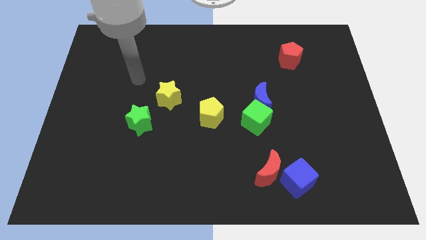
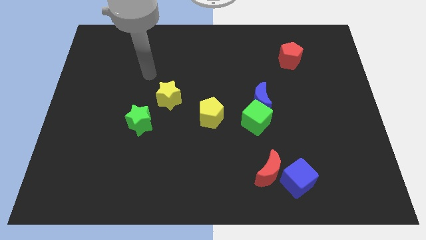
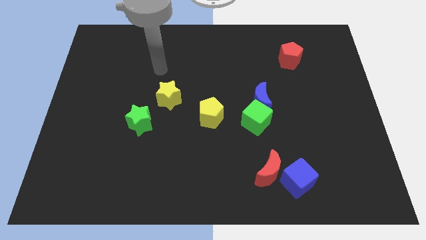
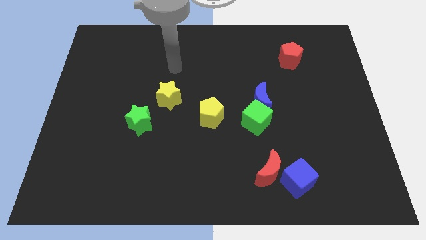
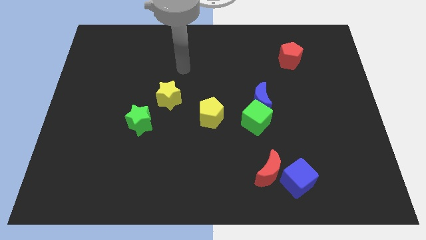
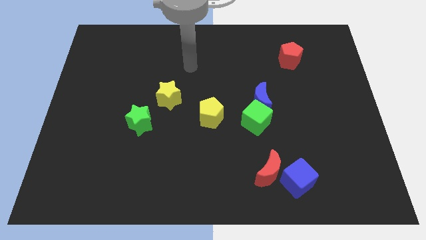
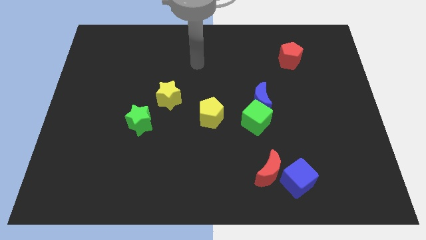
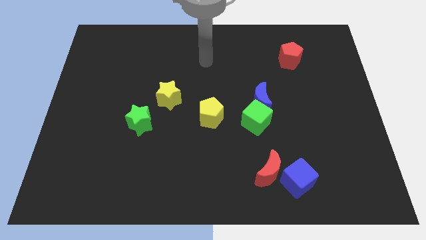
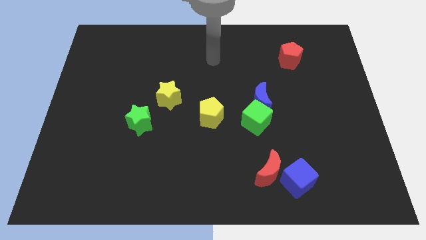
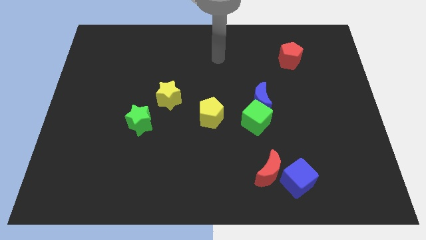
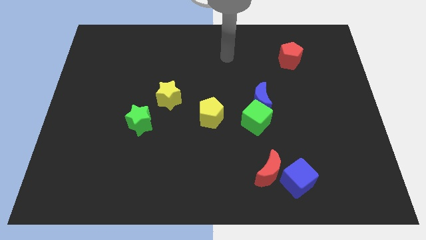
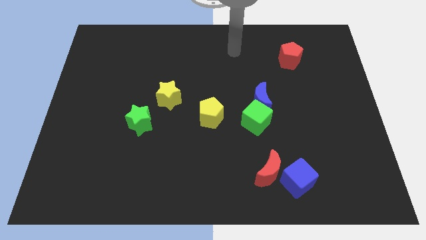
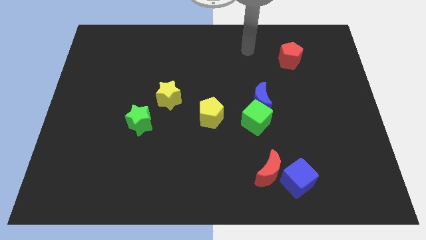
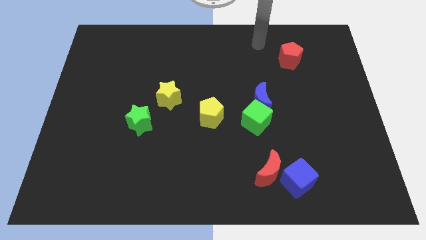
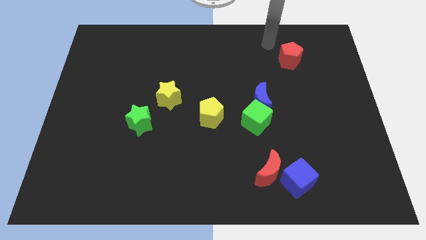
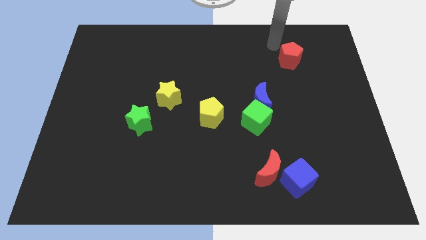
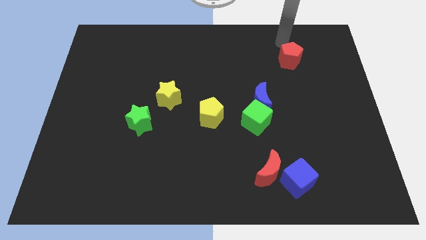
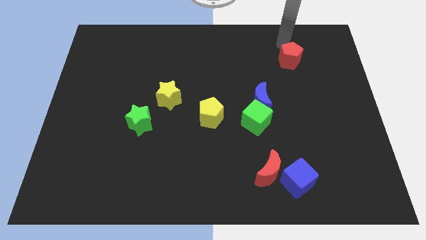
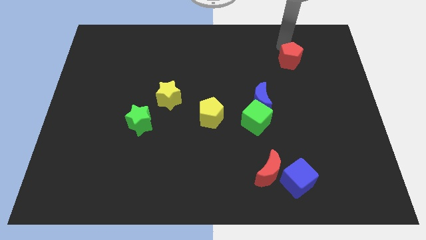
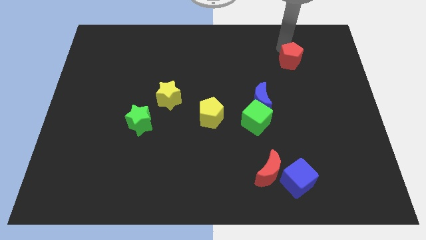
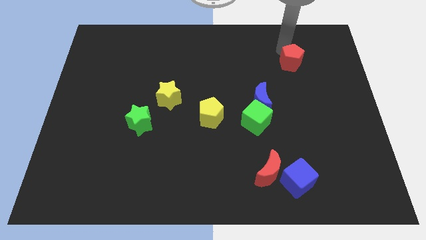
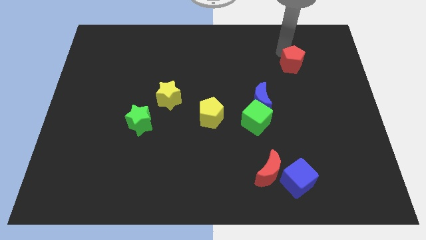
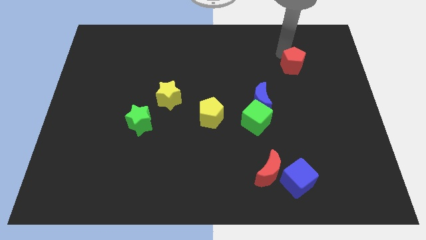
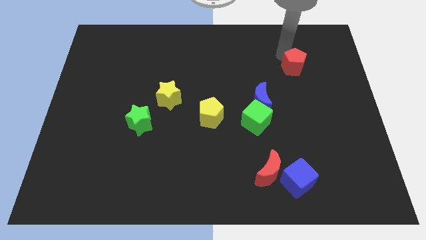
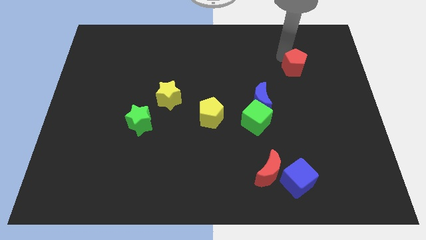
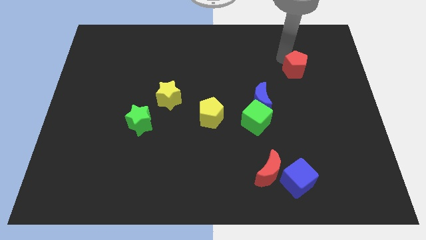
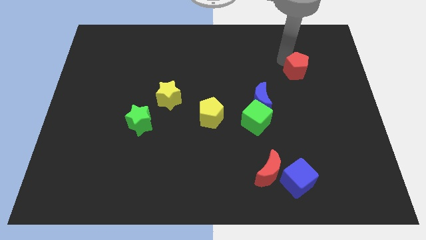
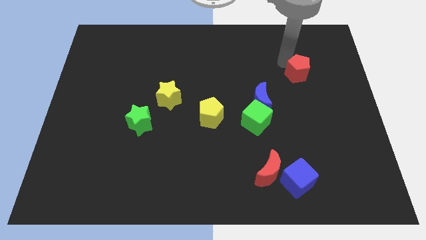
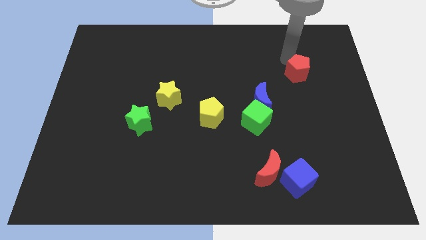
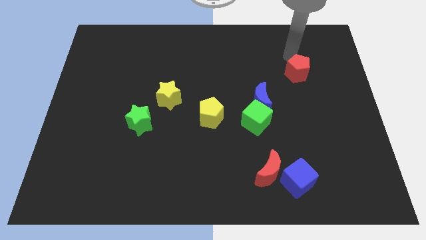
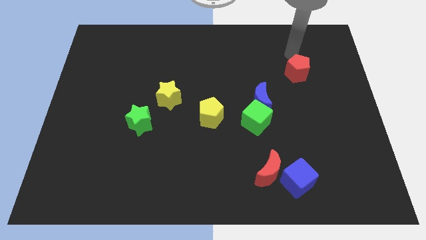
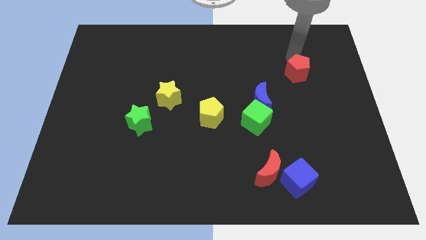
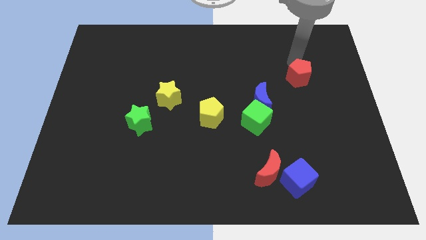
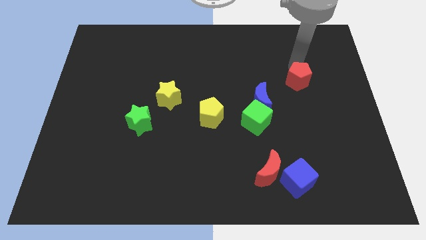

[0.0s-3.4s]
push the red pentagon downwards somewhat

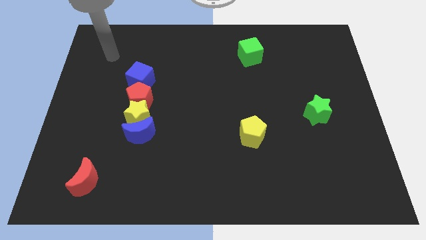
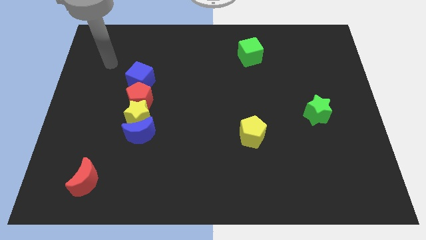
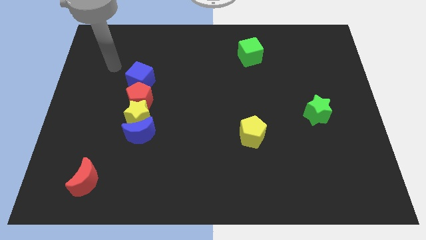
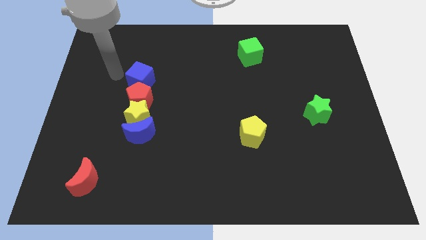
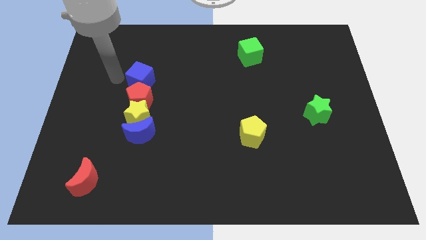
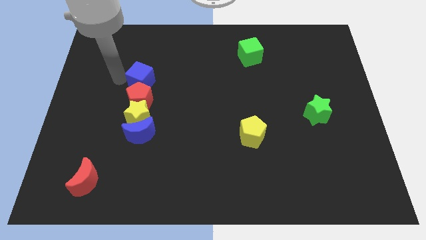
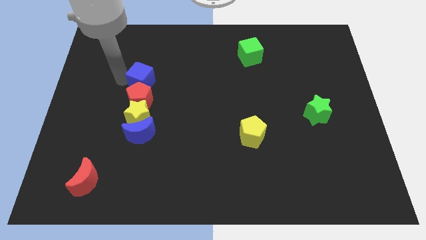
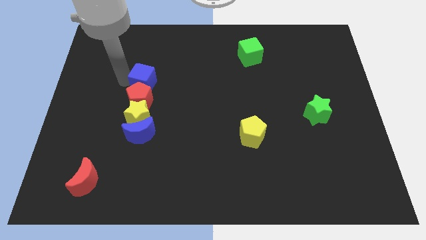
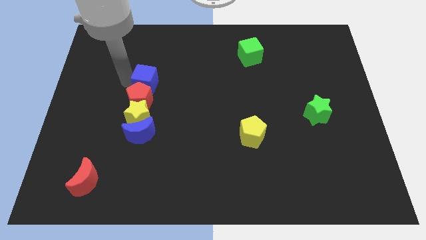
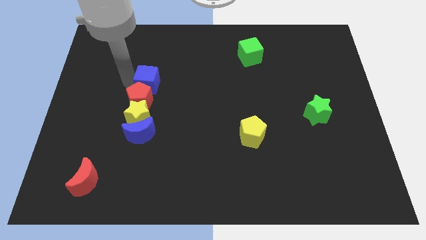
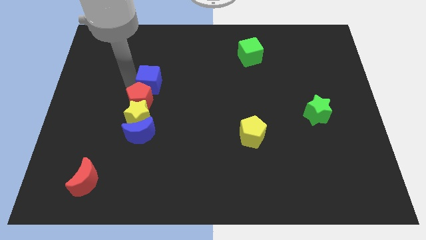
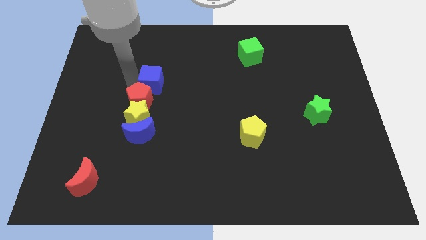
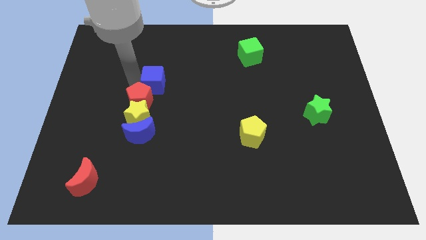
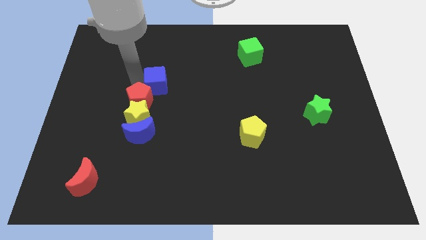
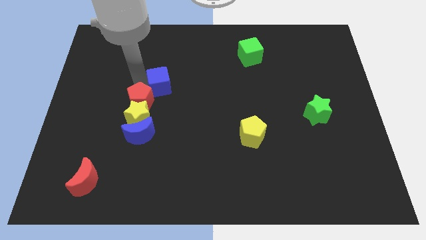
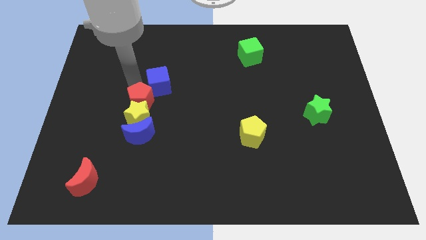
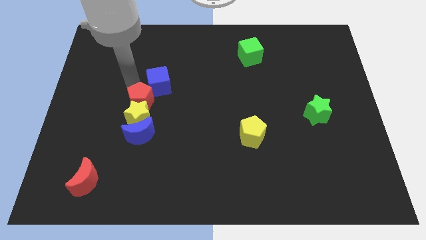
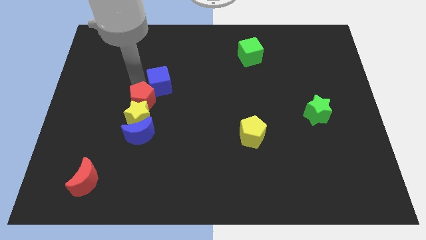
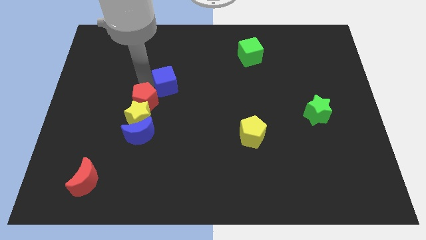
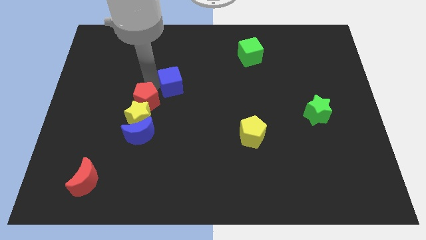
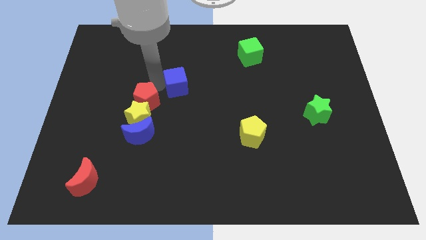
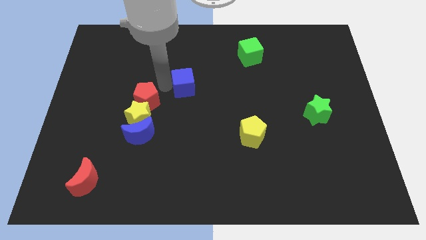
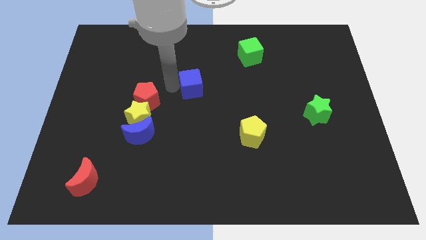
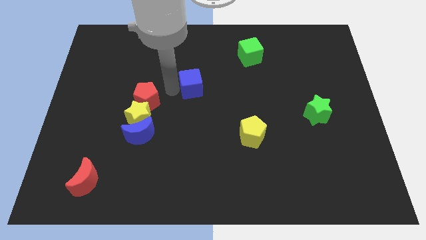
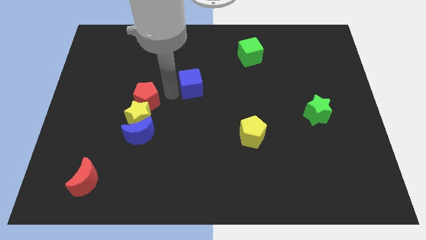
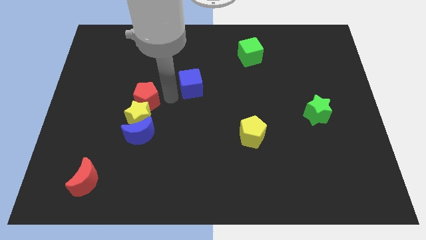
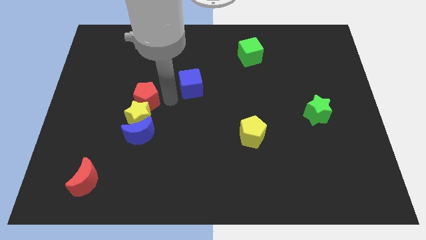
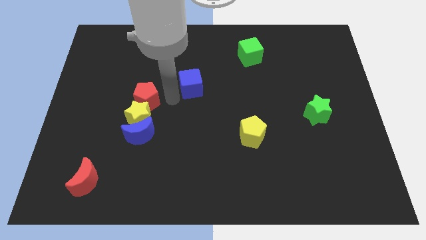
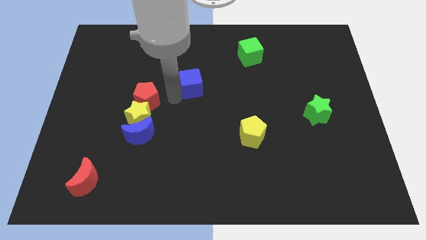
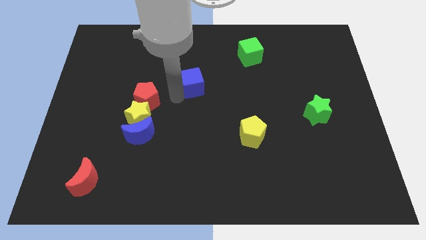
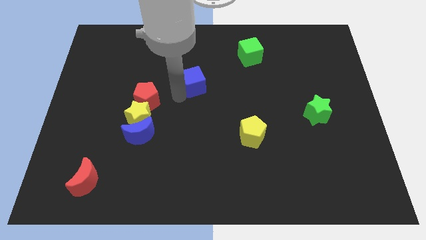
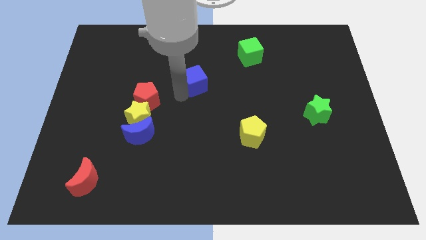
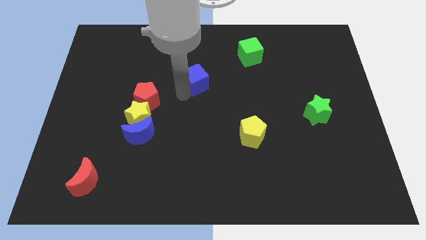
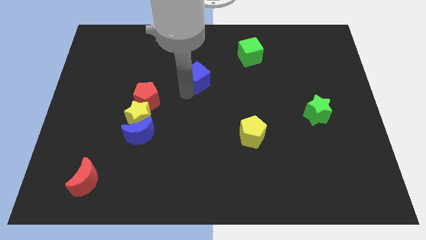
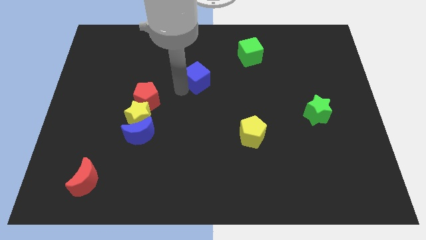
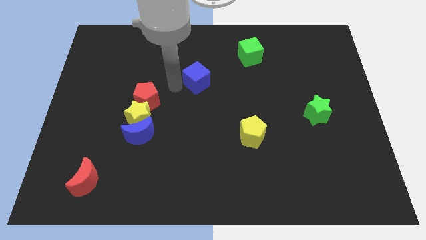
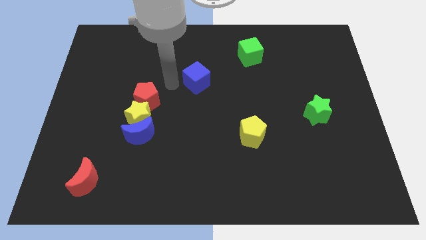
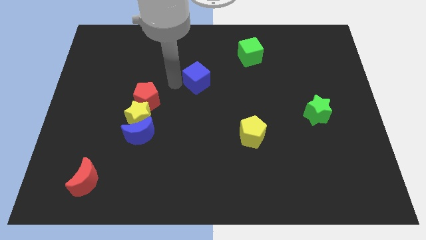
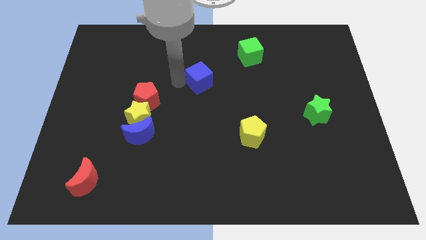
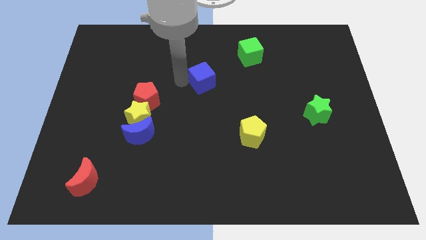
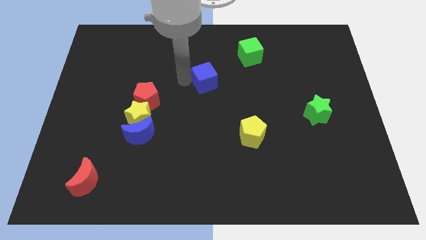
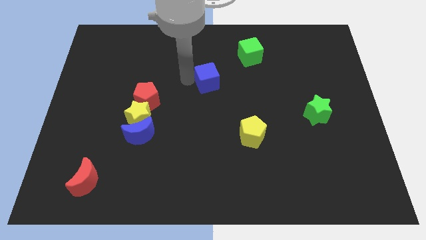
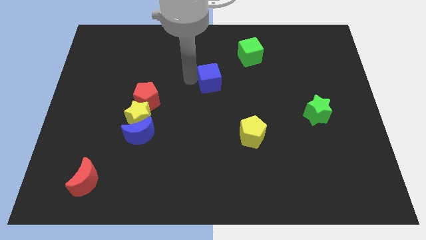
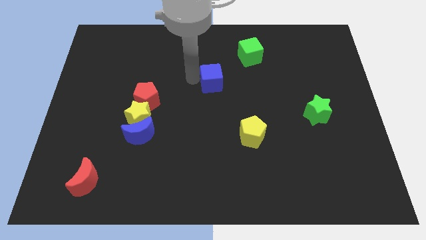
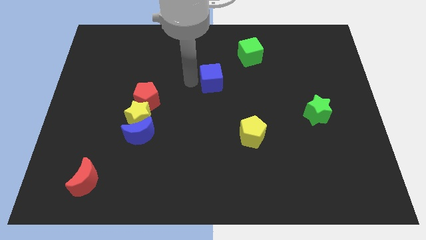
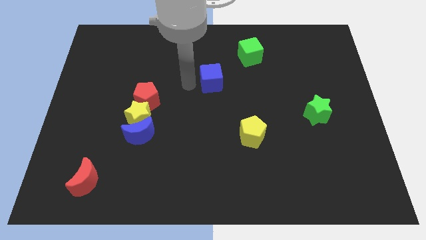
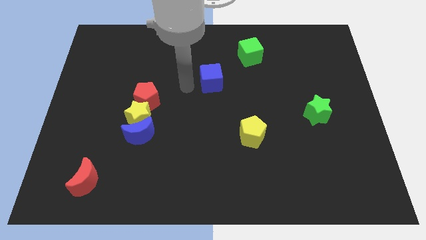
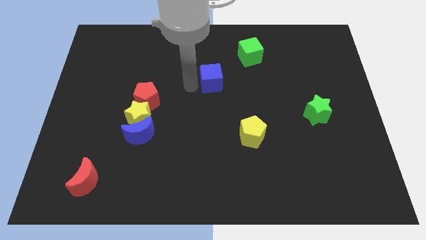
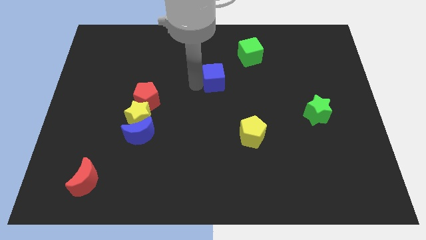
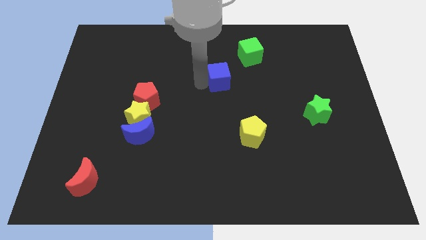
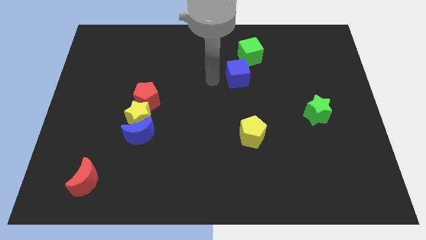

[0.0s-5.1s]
slide the blue cube to the right
